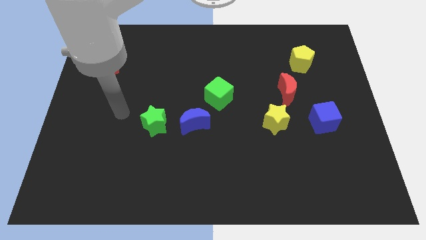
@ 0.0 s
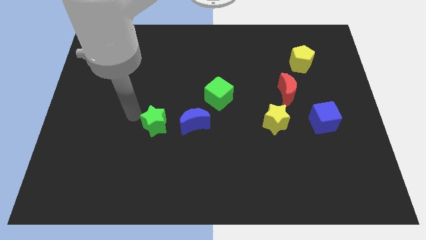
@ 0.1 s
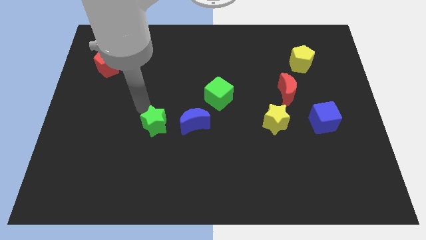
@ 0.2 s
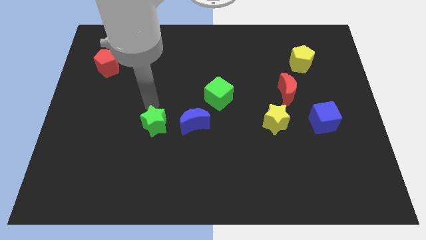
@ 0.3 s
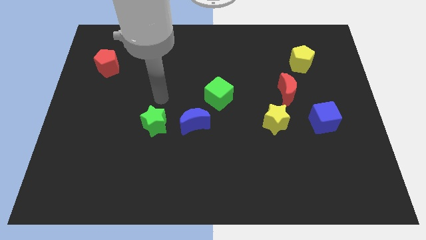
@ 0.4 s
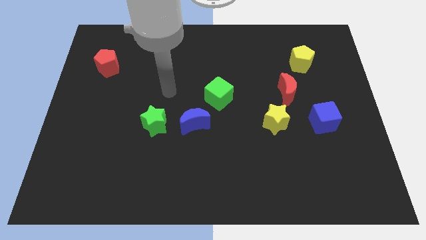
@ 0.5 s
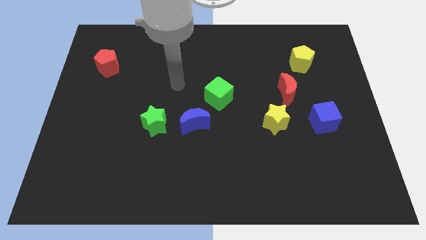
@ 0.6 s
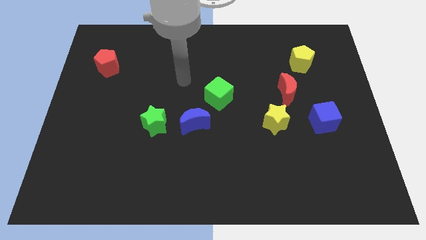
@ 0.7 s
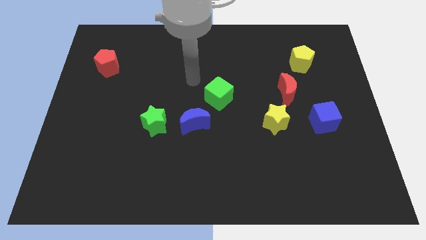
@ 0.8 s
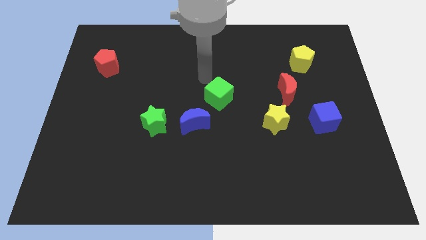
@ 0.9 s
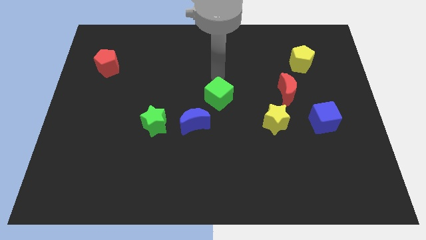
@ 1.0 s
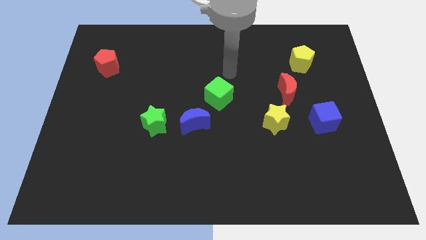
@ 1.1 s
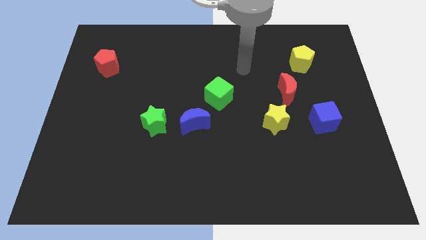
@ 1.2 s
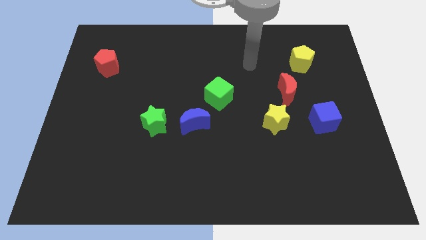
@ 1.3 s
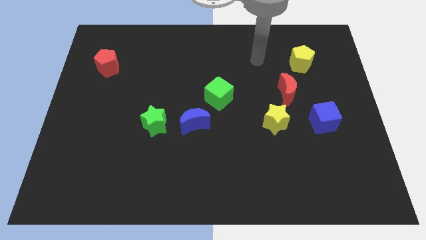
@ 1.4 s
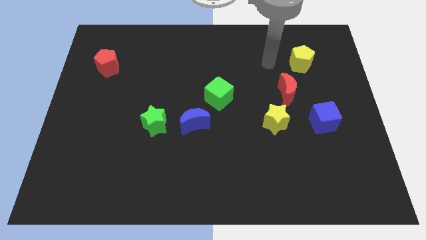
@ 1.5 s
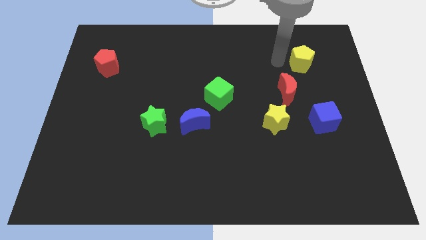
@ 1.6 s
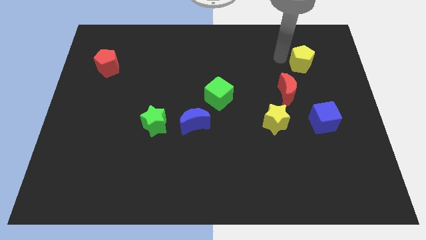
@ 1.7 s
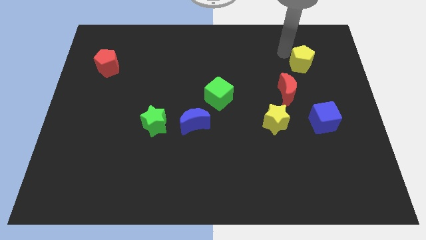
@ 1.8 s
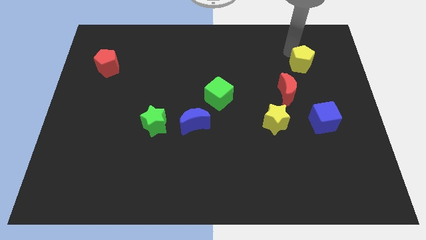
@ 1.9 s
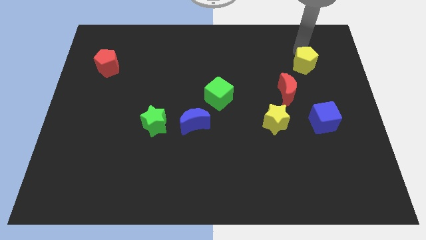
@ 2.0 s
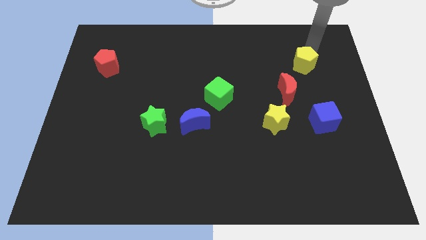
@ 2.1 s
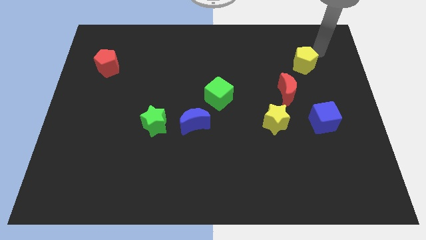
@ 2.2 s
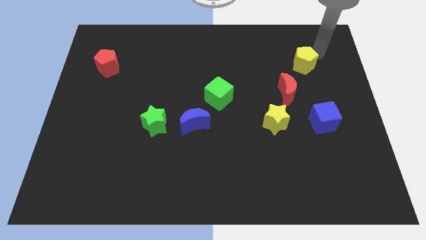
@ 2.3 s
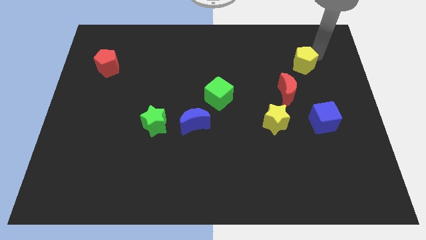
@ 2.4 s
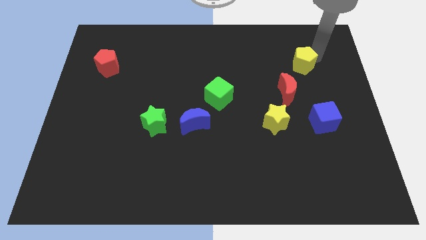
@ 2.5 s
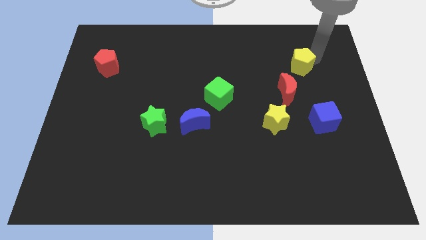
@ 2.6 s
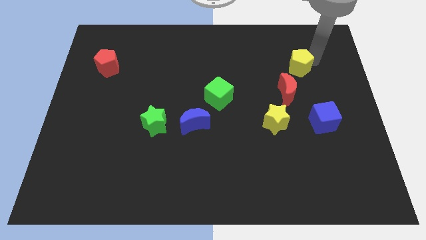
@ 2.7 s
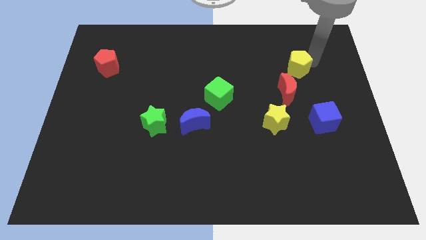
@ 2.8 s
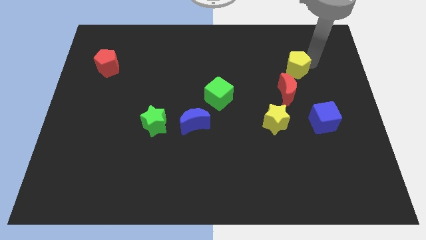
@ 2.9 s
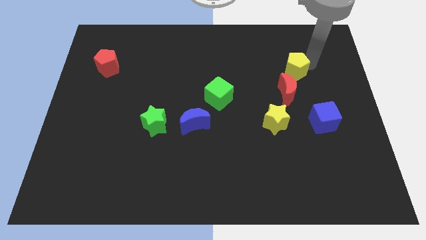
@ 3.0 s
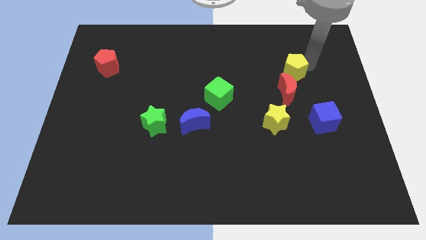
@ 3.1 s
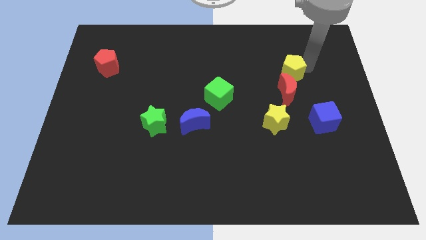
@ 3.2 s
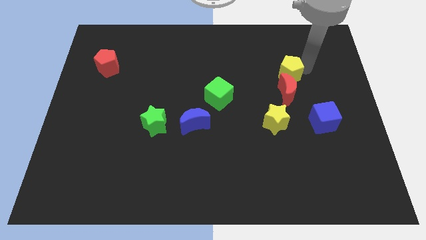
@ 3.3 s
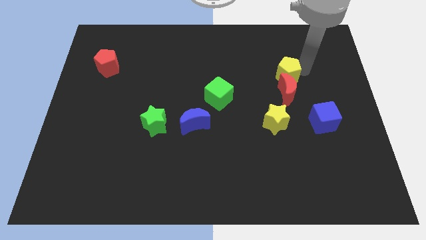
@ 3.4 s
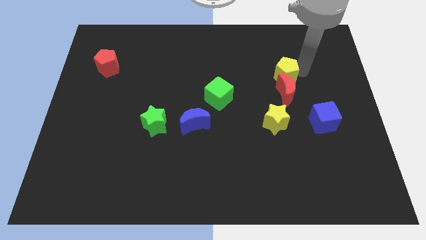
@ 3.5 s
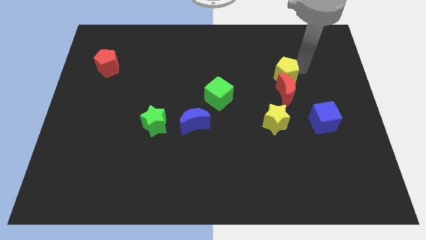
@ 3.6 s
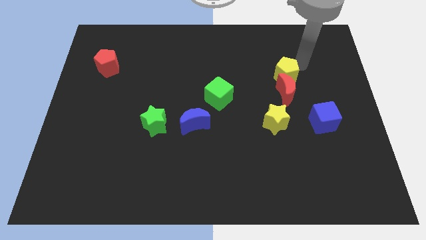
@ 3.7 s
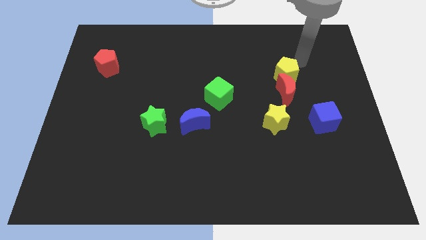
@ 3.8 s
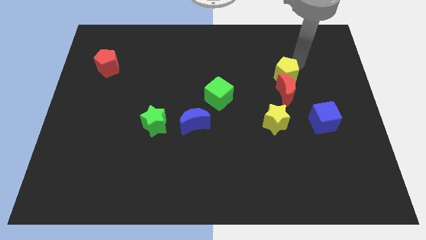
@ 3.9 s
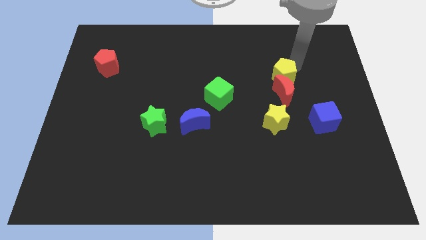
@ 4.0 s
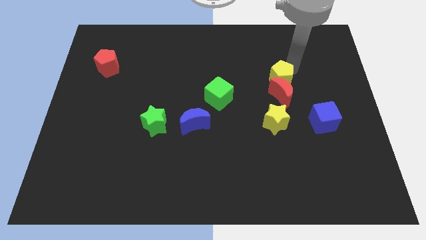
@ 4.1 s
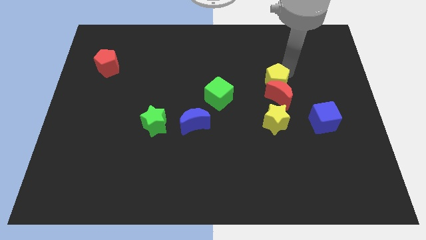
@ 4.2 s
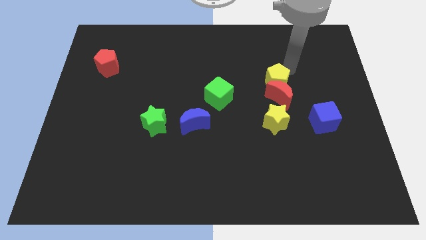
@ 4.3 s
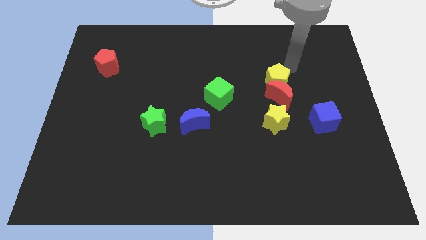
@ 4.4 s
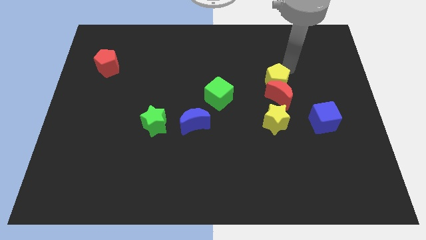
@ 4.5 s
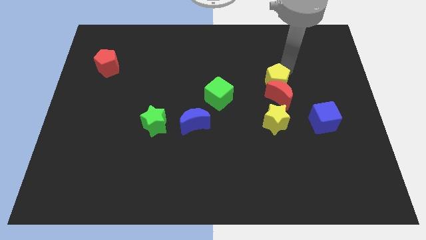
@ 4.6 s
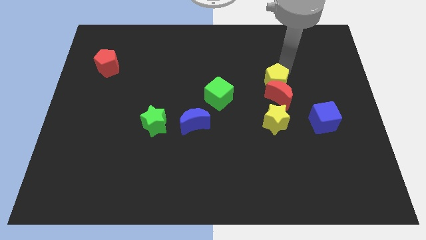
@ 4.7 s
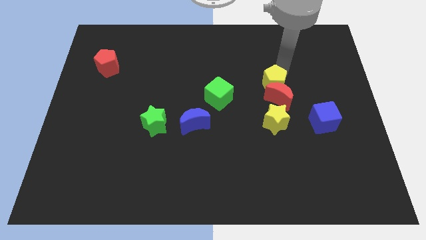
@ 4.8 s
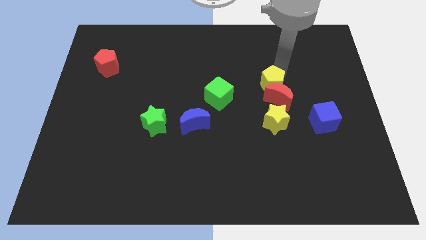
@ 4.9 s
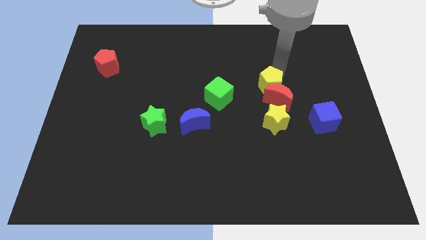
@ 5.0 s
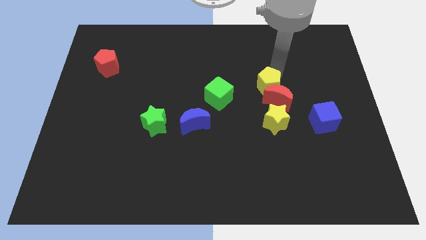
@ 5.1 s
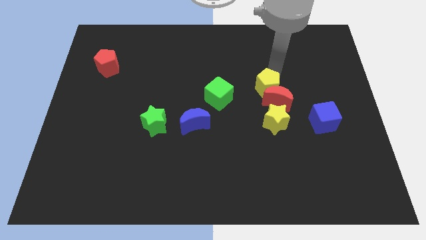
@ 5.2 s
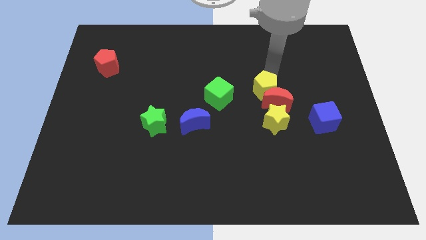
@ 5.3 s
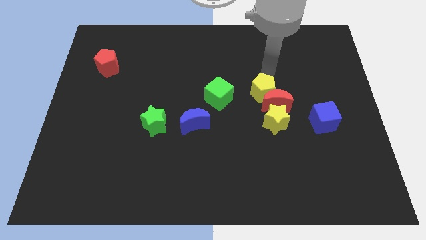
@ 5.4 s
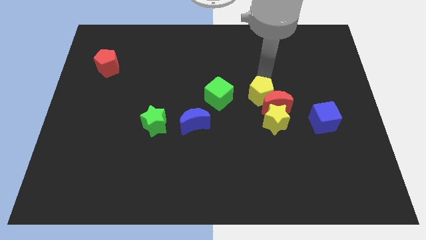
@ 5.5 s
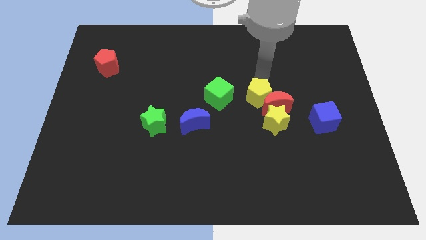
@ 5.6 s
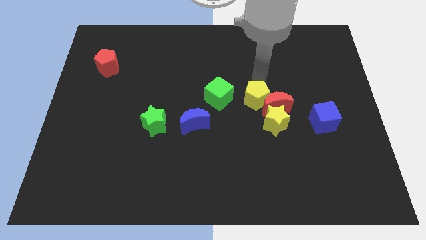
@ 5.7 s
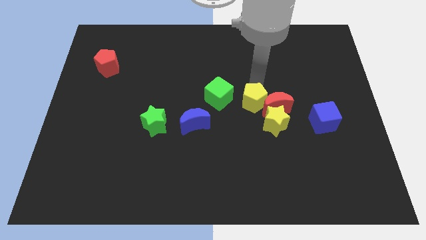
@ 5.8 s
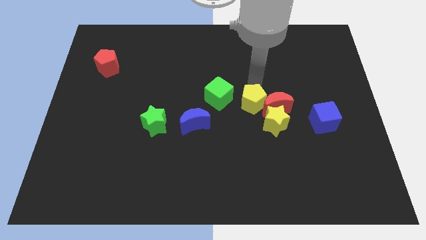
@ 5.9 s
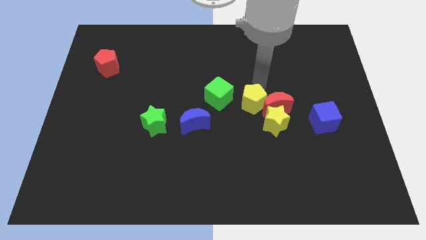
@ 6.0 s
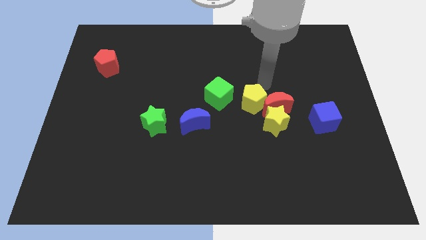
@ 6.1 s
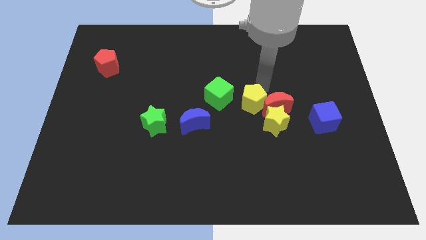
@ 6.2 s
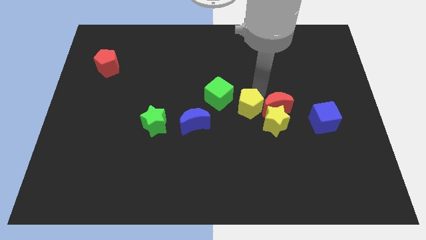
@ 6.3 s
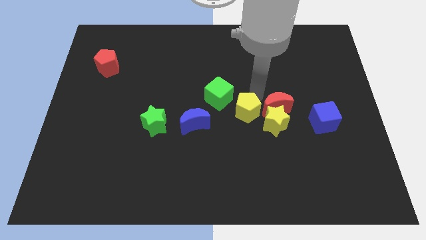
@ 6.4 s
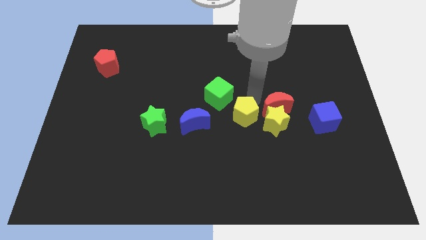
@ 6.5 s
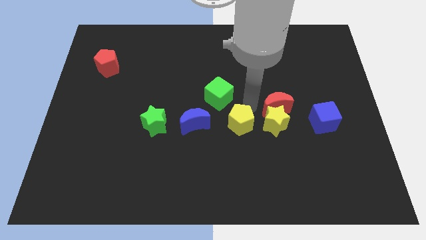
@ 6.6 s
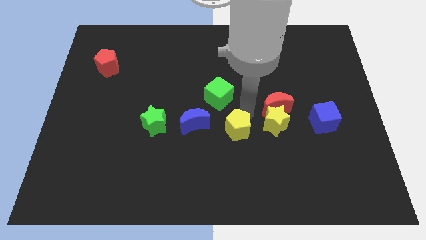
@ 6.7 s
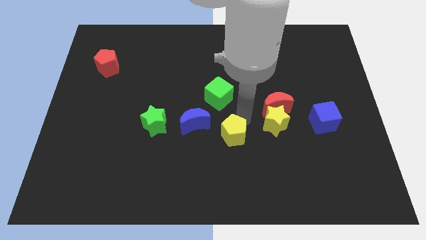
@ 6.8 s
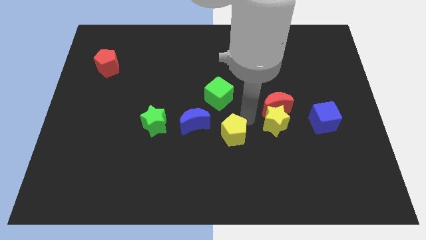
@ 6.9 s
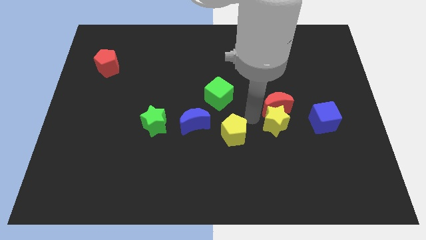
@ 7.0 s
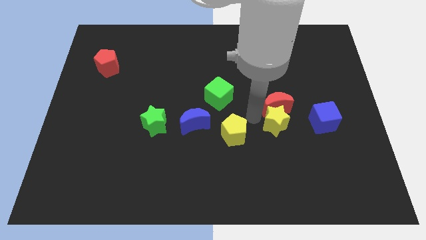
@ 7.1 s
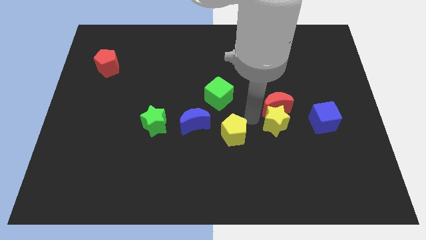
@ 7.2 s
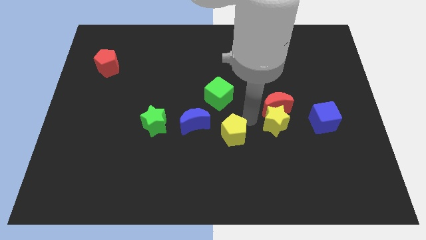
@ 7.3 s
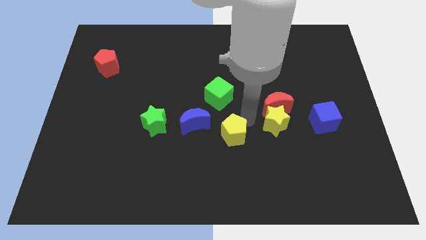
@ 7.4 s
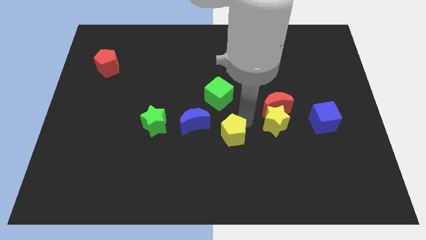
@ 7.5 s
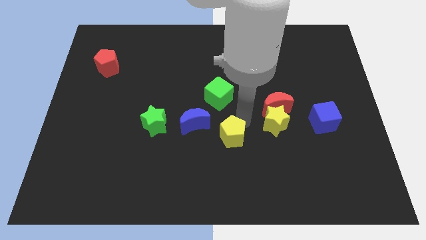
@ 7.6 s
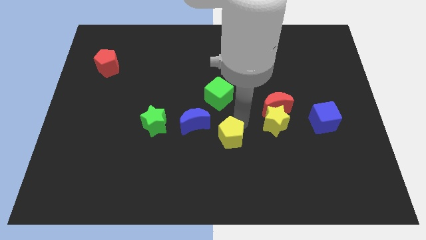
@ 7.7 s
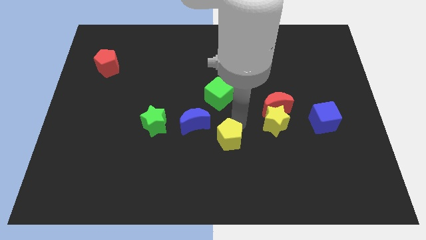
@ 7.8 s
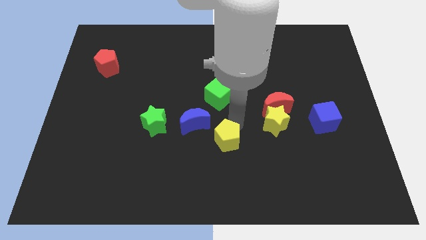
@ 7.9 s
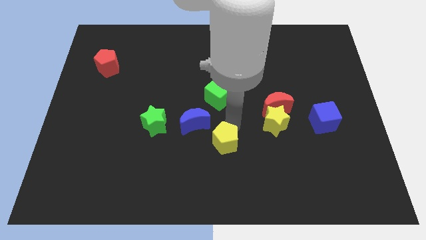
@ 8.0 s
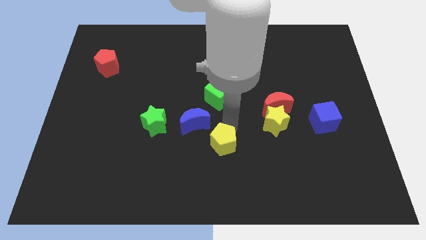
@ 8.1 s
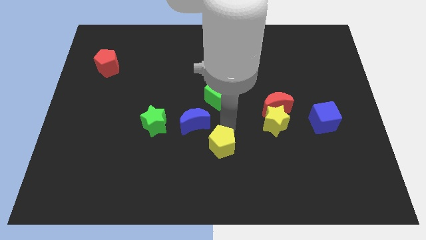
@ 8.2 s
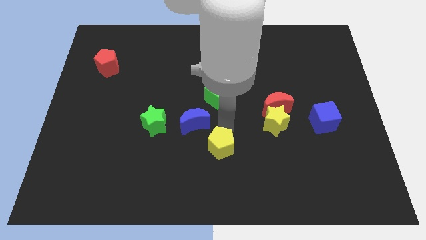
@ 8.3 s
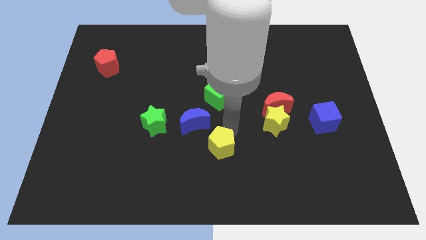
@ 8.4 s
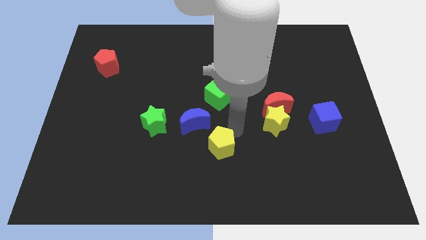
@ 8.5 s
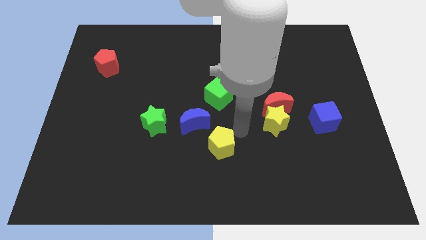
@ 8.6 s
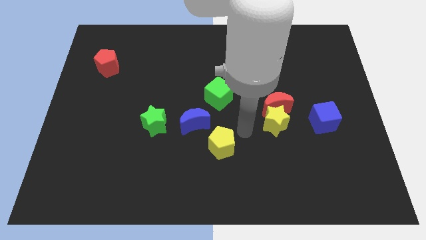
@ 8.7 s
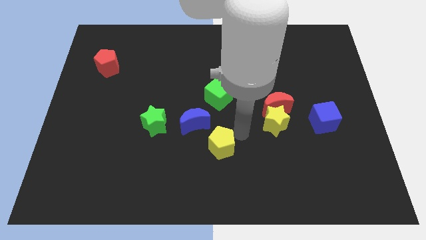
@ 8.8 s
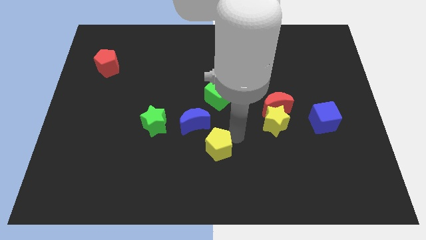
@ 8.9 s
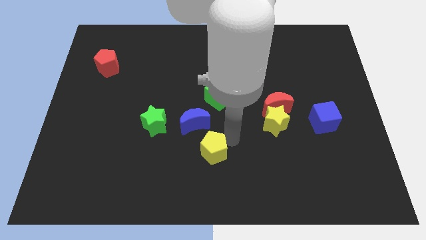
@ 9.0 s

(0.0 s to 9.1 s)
push the yellow pentagon to the bottom of the blue moon
